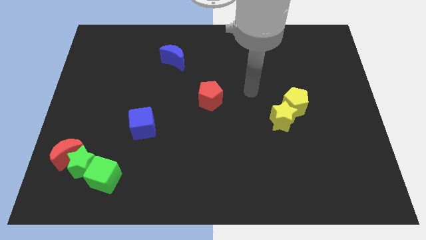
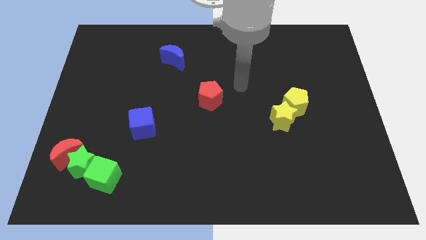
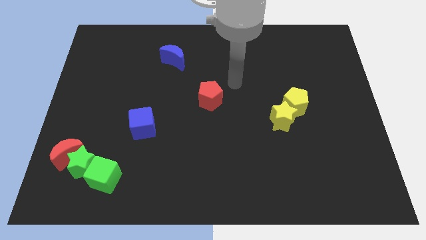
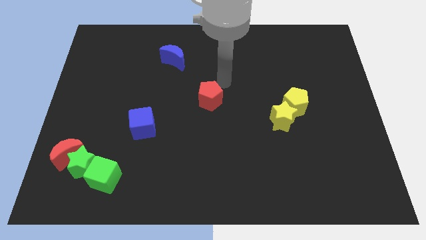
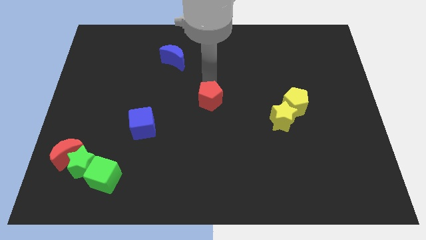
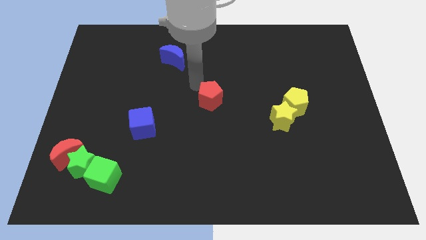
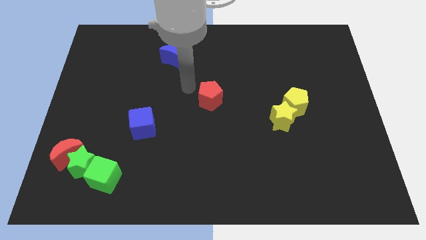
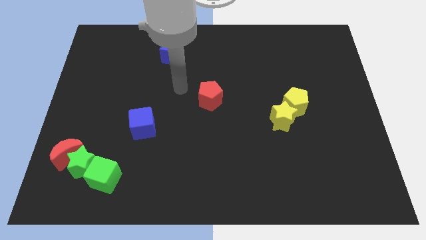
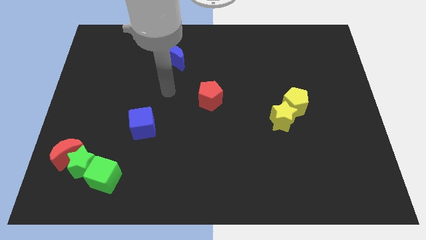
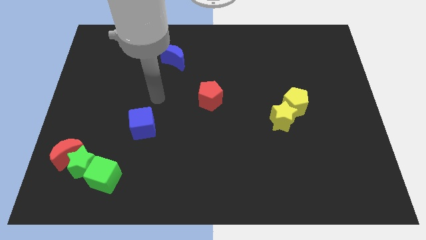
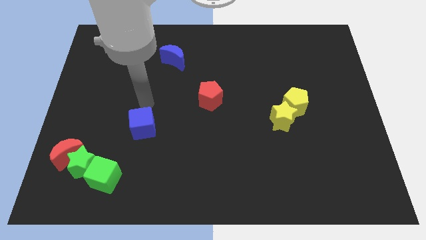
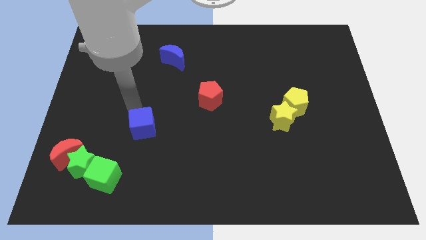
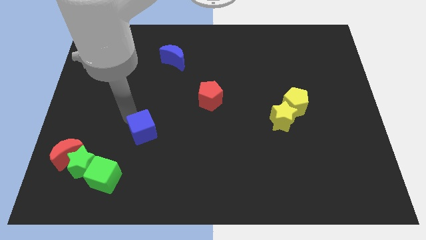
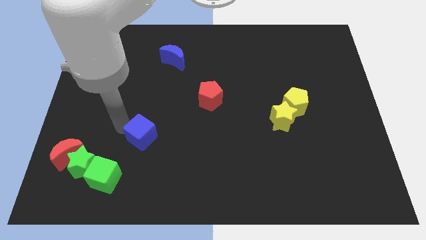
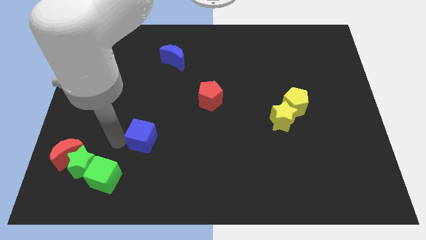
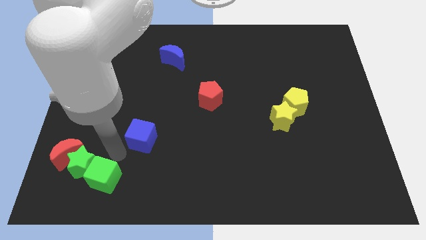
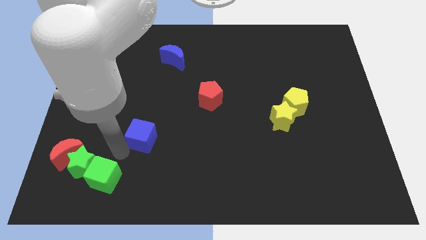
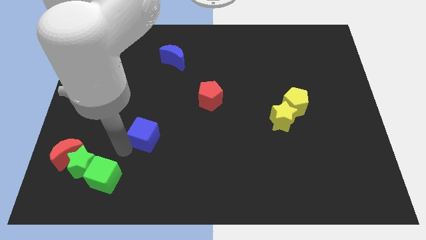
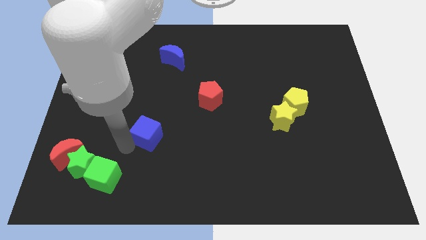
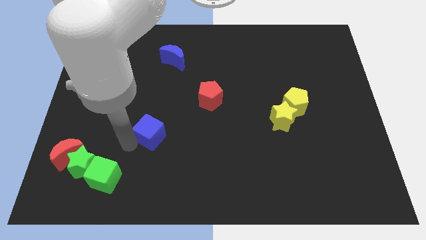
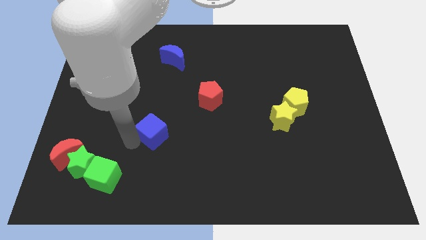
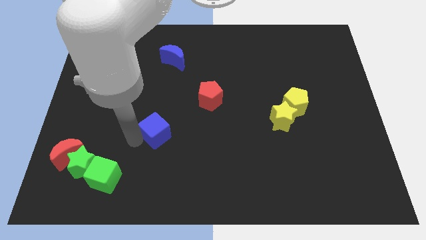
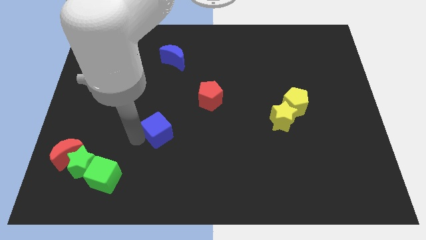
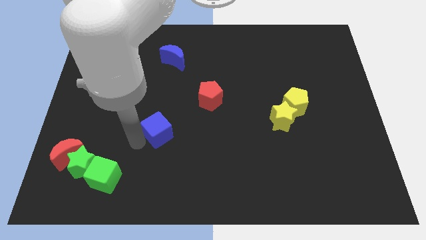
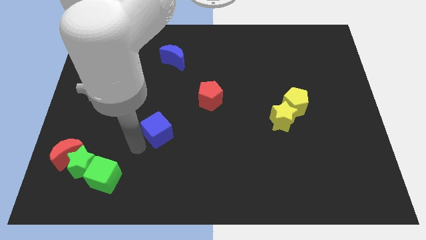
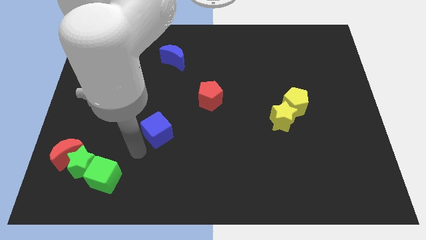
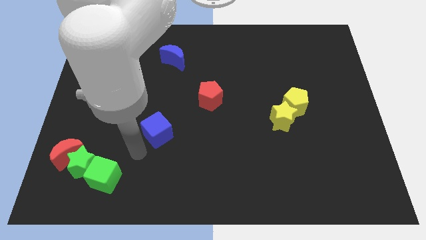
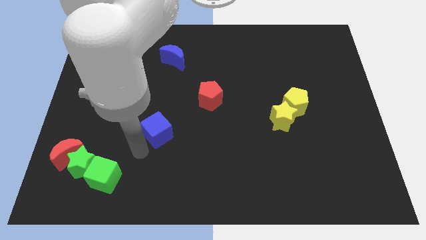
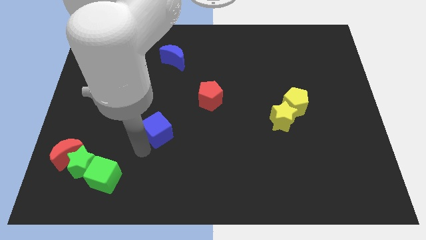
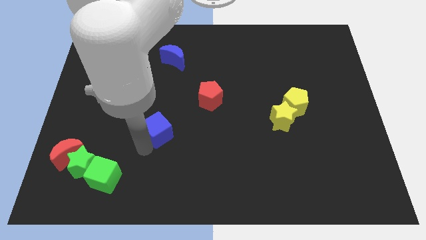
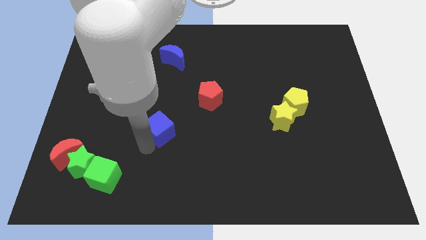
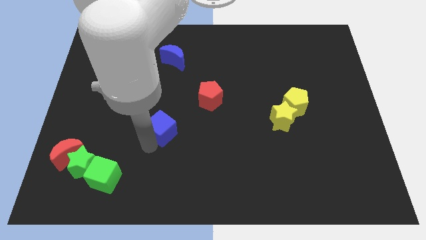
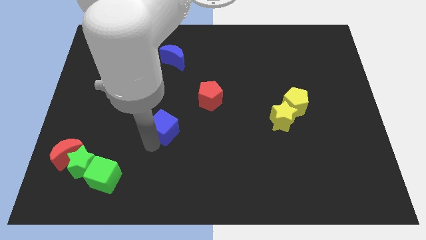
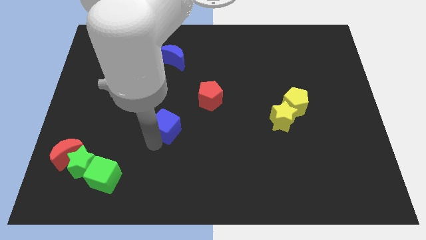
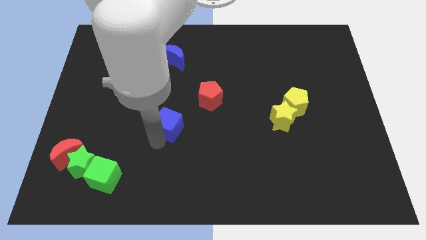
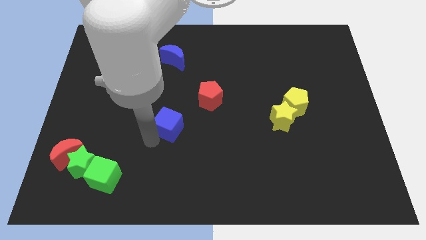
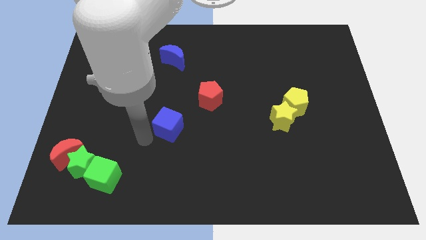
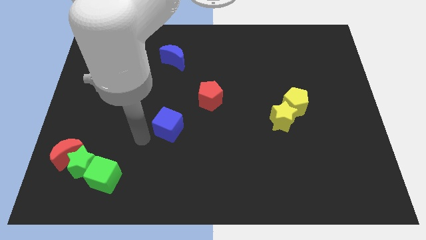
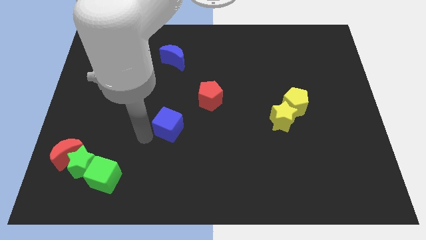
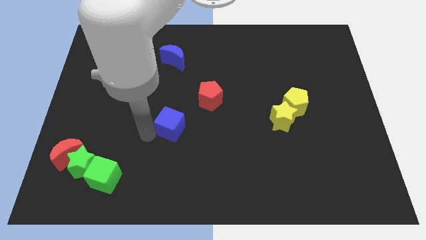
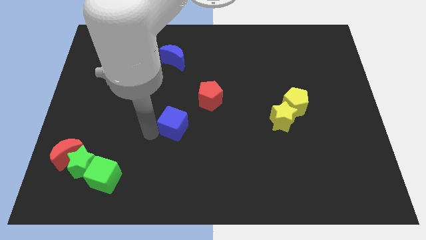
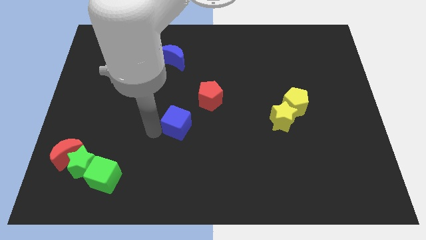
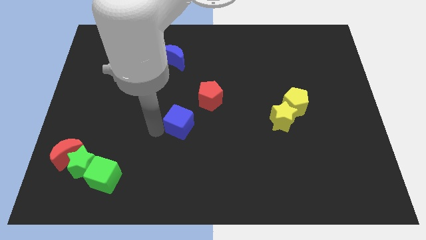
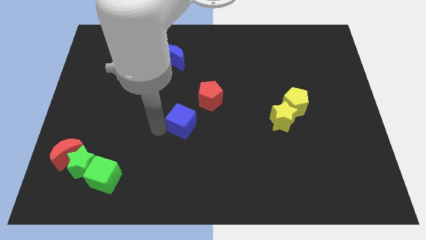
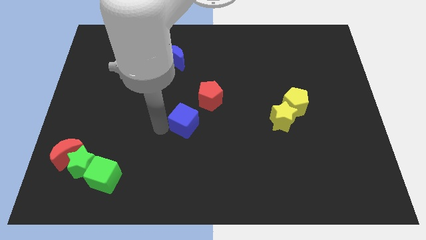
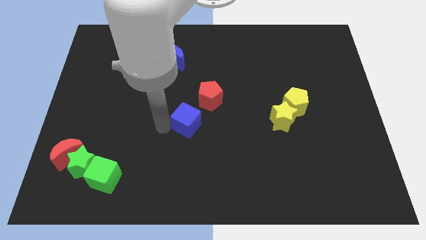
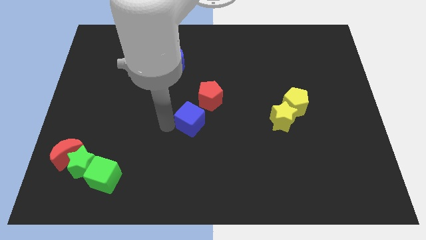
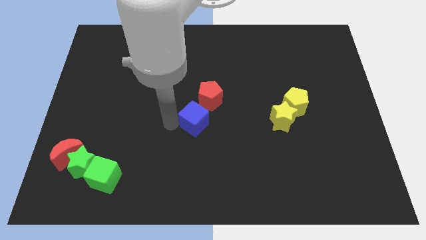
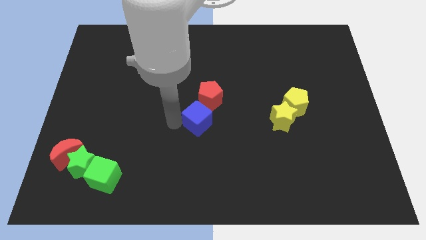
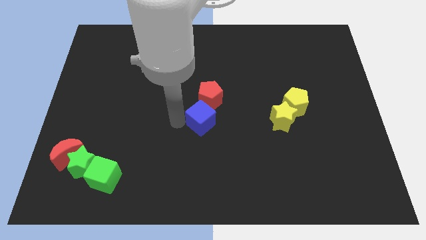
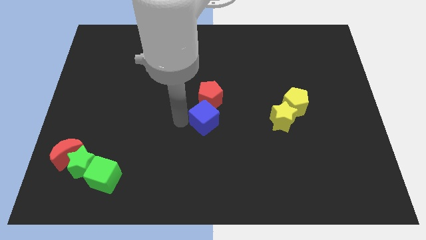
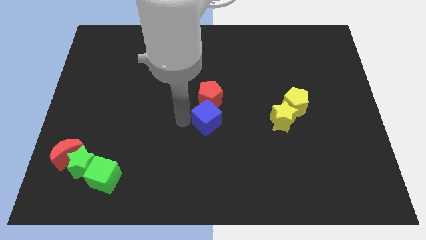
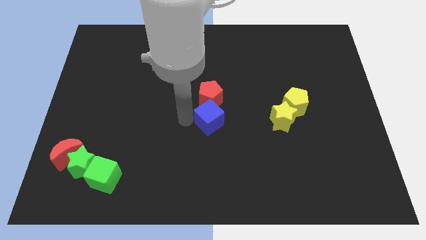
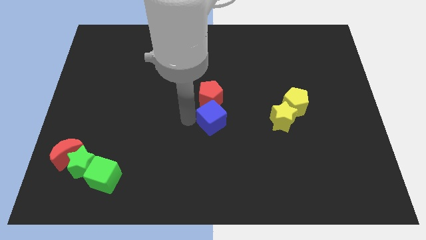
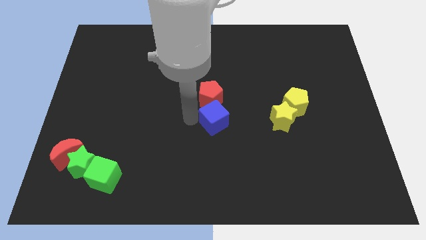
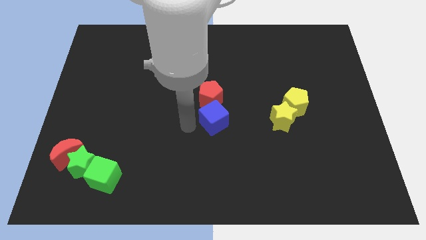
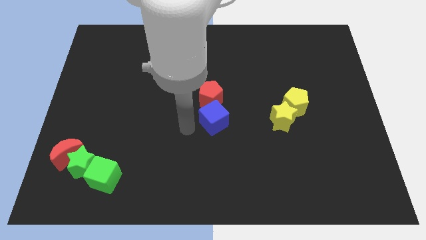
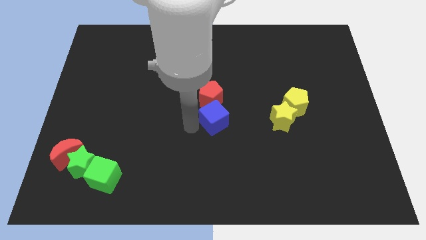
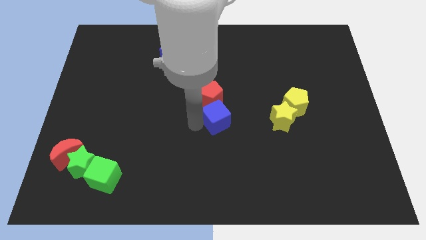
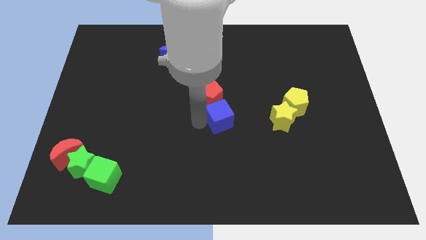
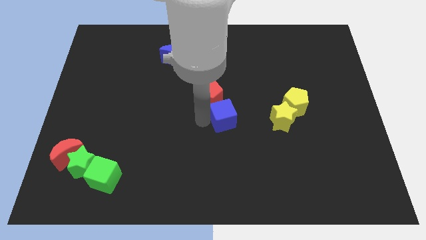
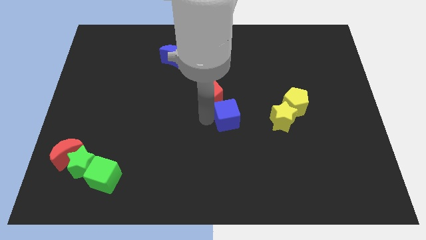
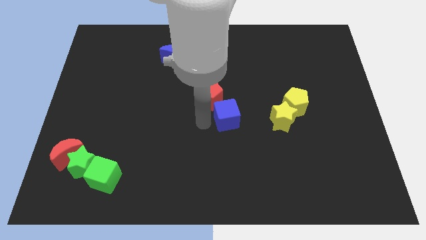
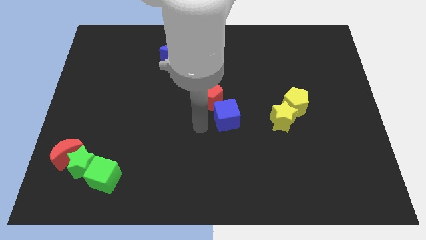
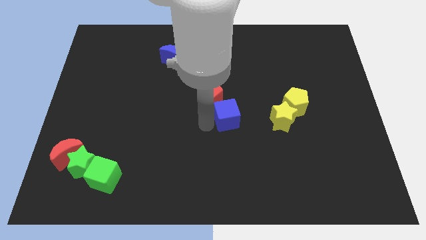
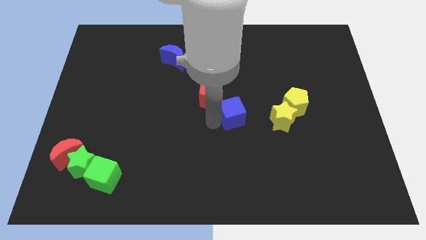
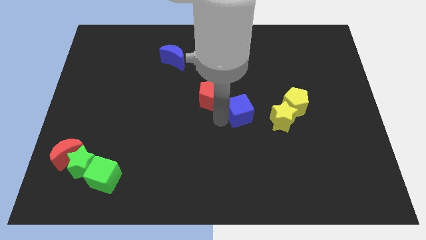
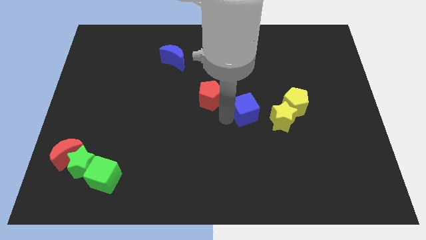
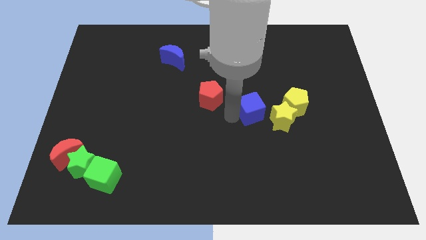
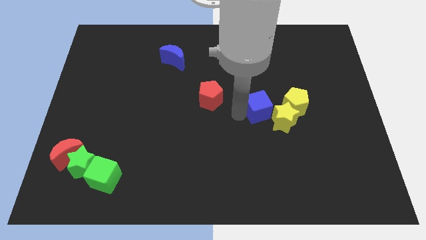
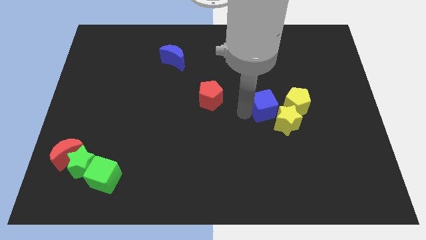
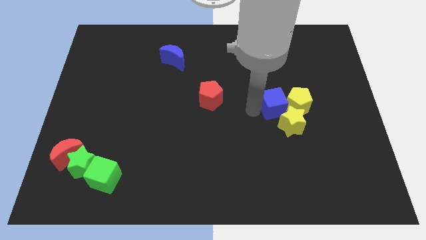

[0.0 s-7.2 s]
move the blue cube close to the yellow pentagon

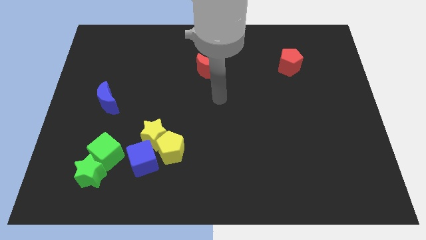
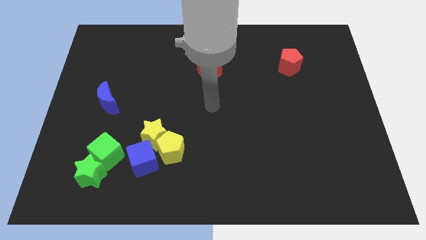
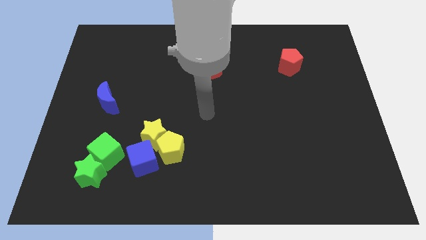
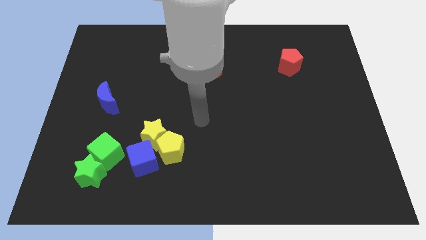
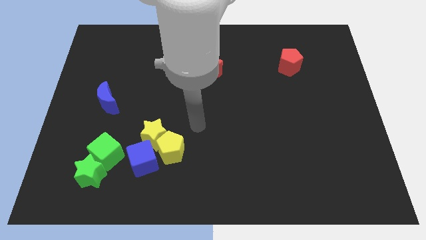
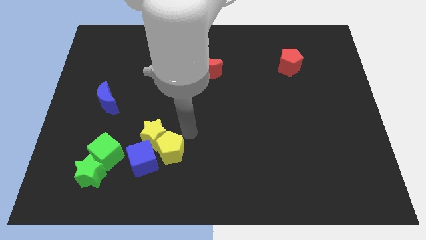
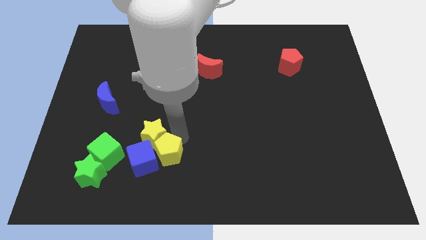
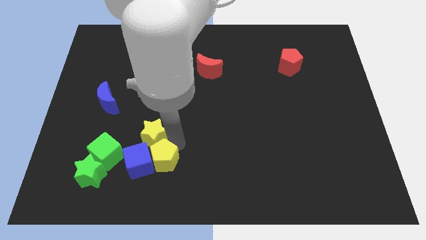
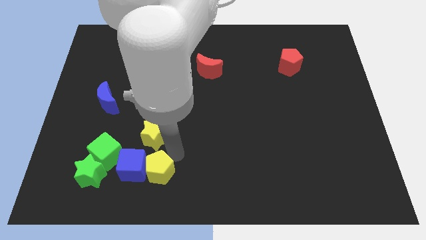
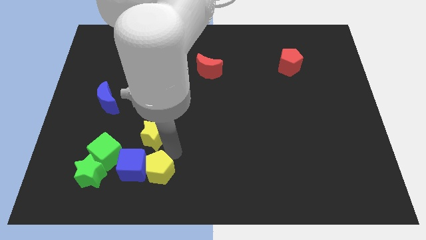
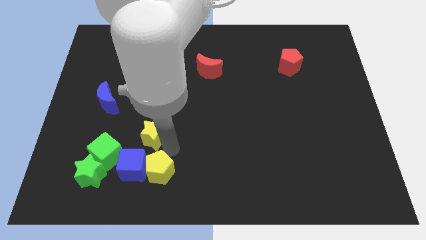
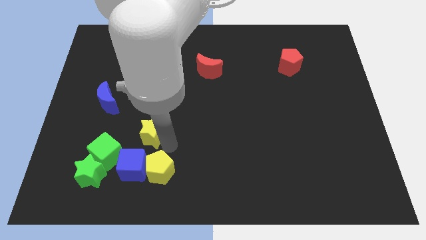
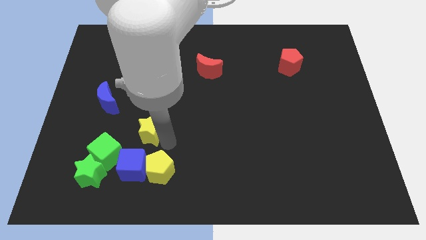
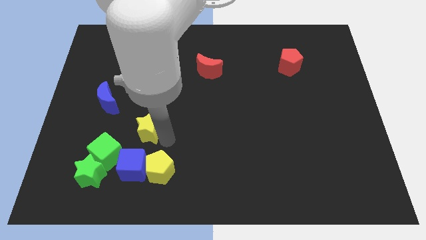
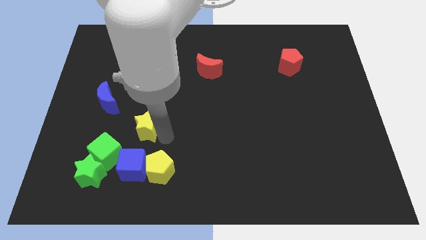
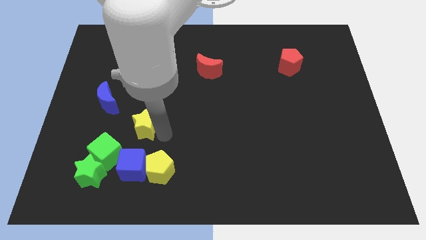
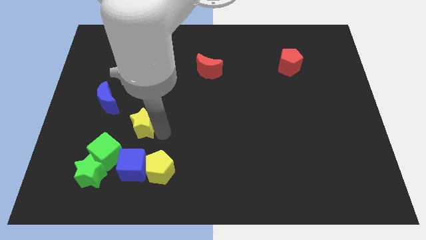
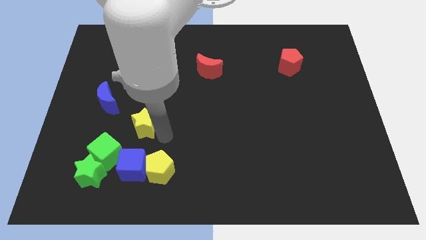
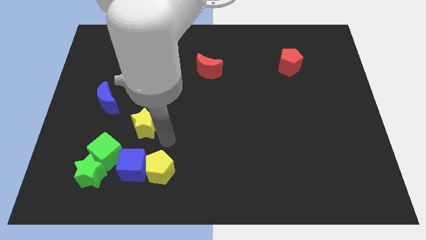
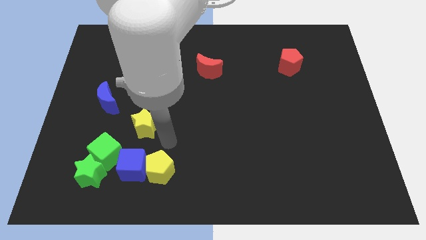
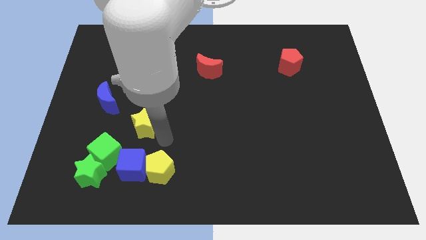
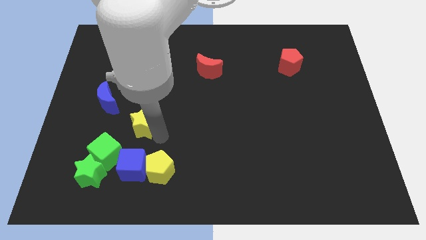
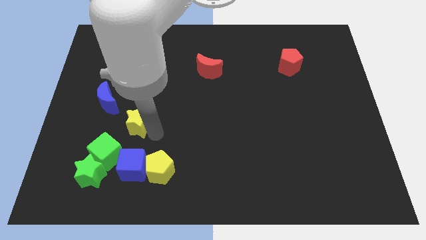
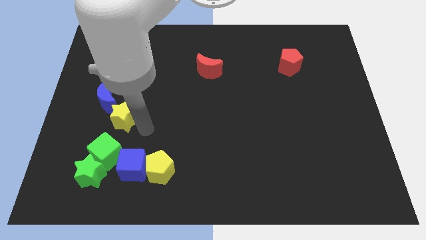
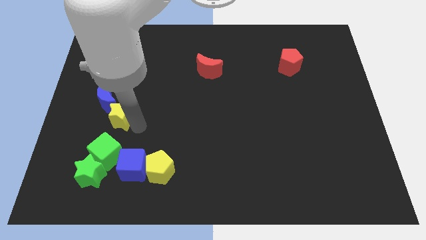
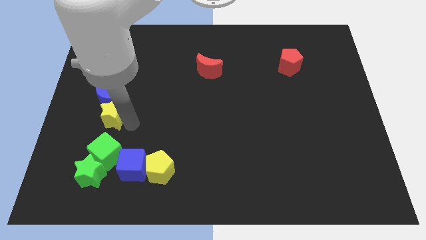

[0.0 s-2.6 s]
put the yellow star towards the blue moon
